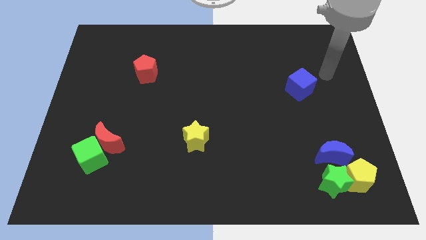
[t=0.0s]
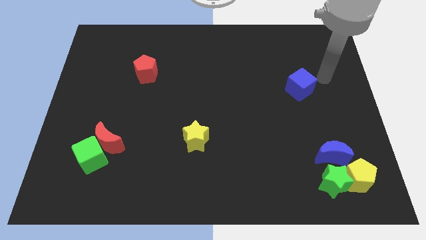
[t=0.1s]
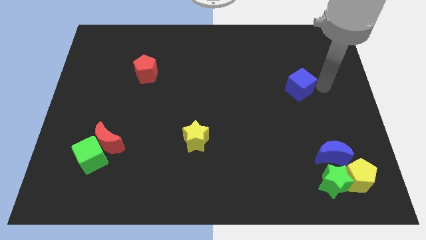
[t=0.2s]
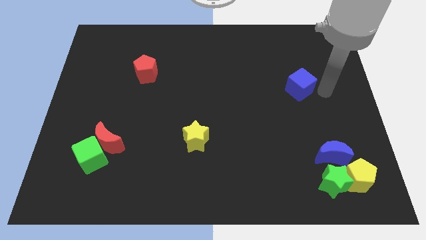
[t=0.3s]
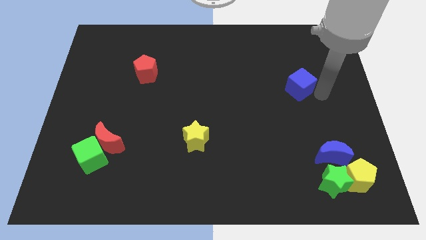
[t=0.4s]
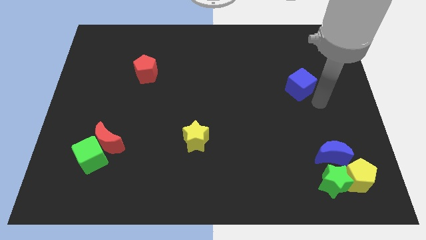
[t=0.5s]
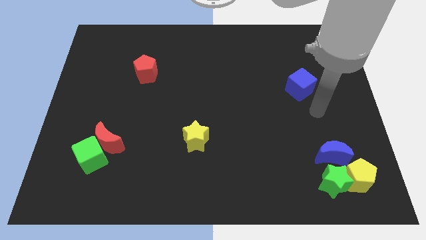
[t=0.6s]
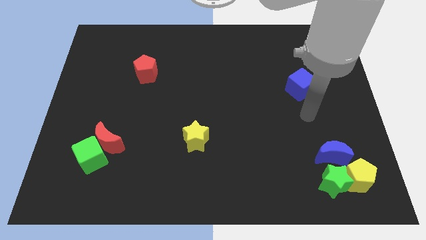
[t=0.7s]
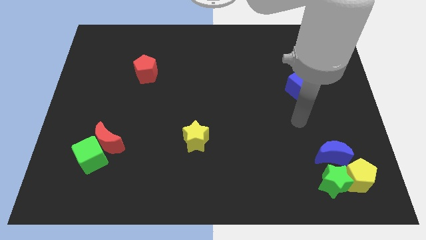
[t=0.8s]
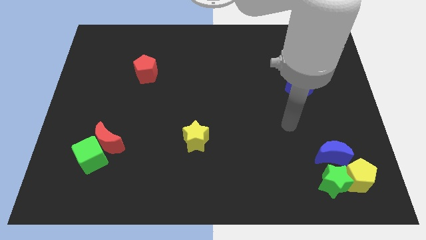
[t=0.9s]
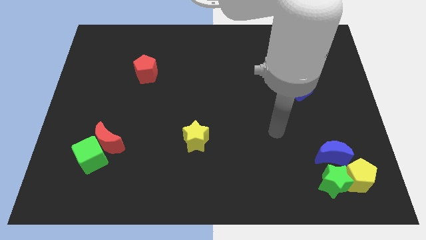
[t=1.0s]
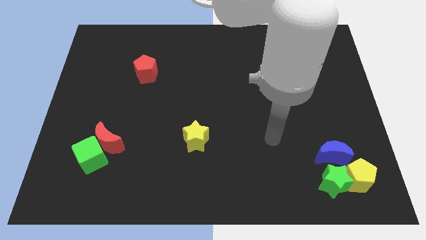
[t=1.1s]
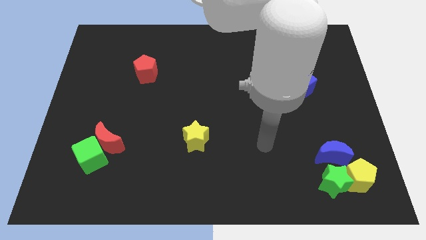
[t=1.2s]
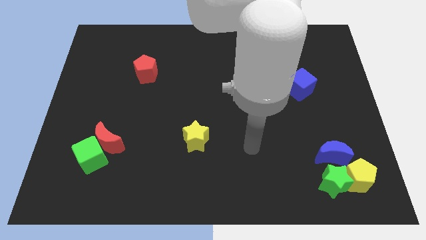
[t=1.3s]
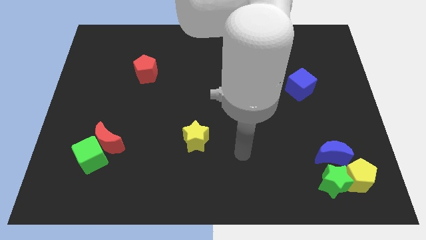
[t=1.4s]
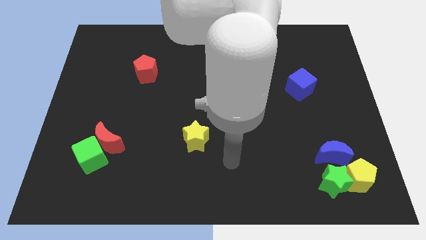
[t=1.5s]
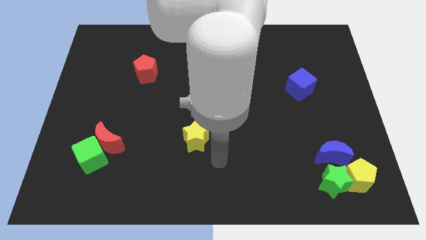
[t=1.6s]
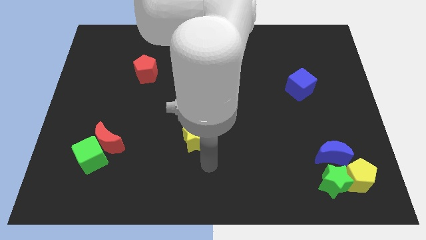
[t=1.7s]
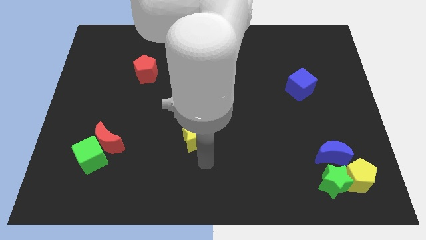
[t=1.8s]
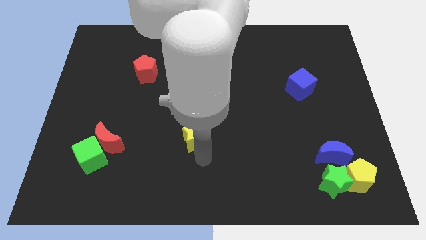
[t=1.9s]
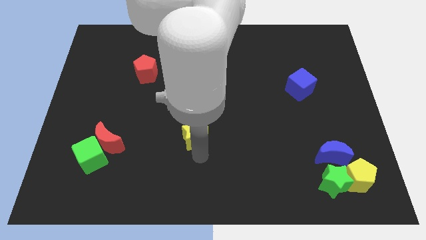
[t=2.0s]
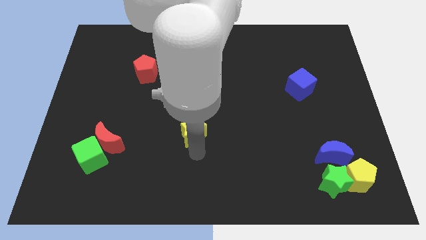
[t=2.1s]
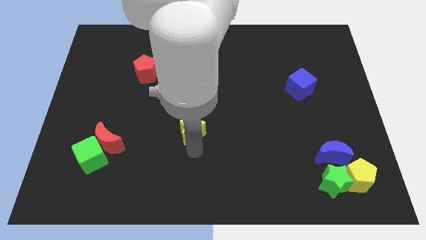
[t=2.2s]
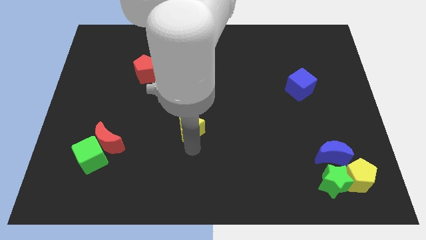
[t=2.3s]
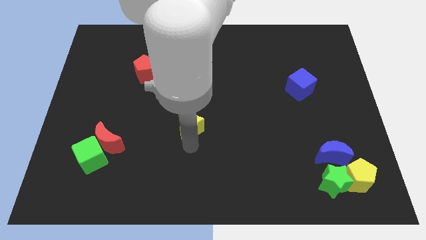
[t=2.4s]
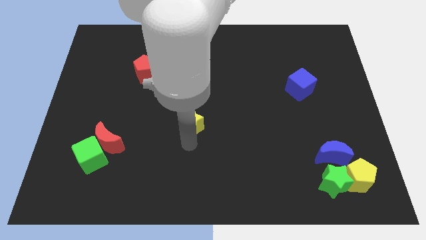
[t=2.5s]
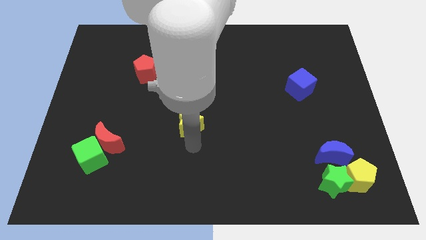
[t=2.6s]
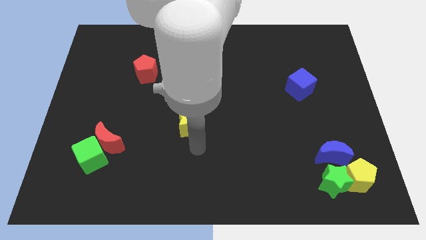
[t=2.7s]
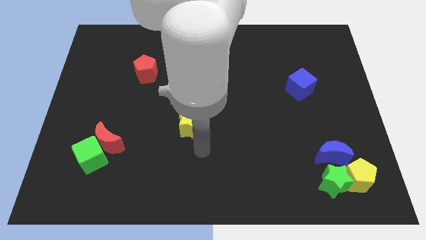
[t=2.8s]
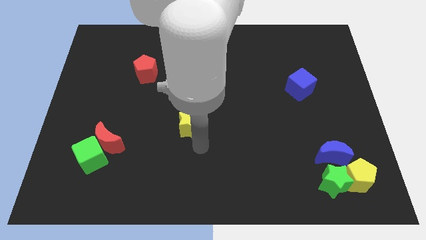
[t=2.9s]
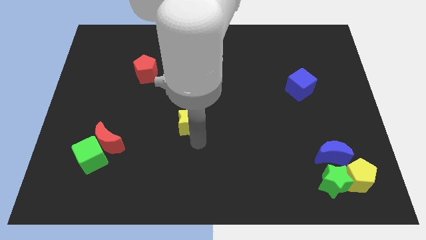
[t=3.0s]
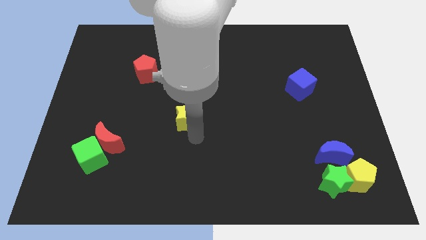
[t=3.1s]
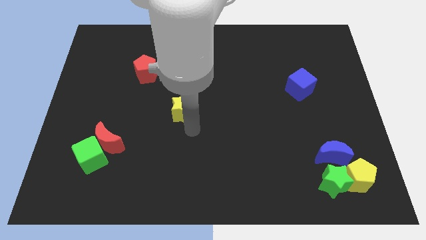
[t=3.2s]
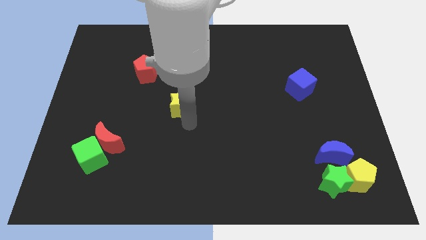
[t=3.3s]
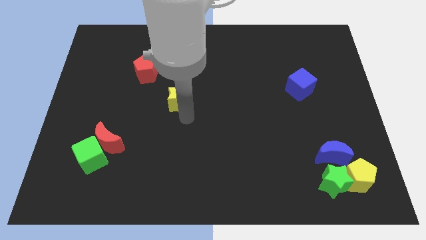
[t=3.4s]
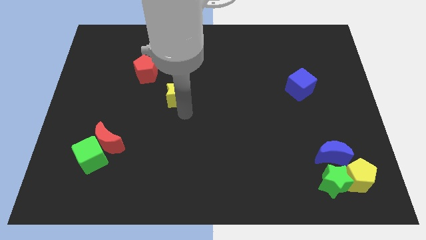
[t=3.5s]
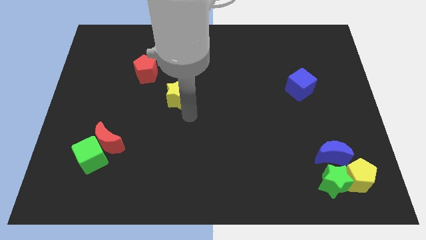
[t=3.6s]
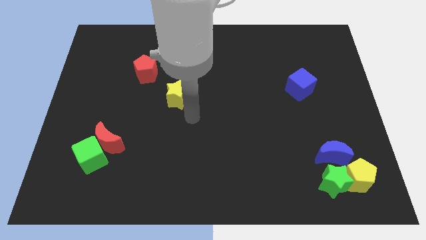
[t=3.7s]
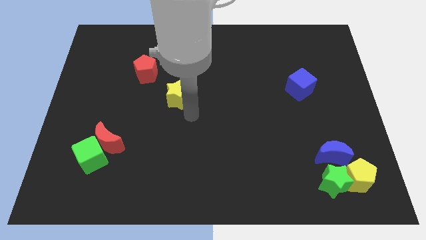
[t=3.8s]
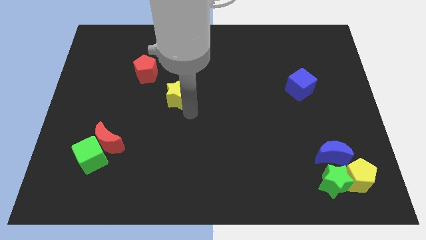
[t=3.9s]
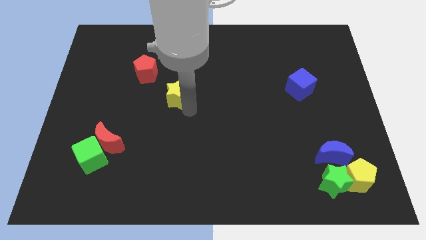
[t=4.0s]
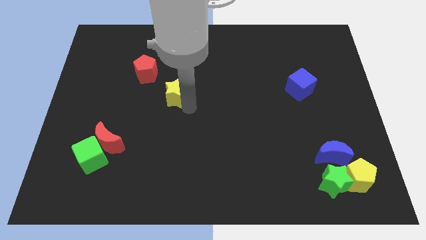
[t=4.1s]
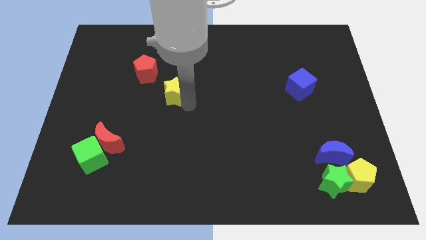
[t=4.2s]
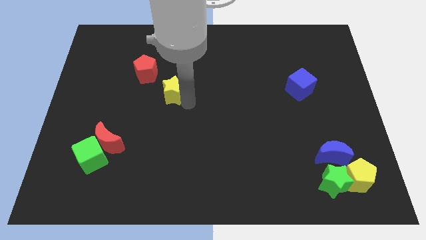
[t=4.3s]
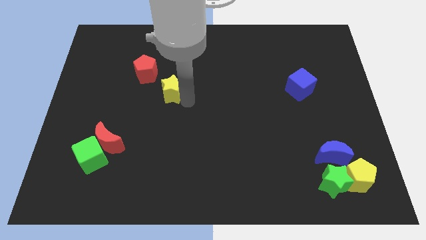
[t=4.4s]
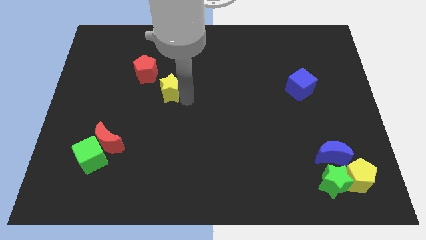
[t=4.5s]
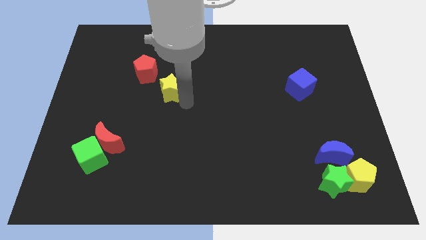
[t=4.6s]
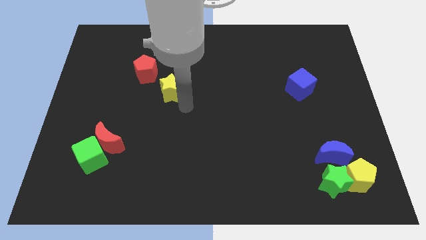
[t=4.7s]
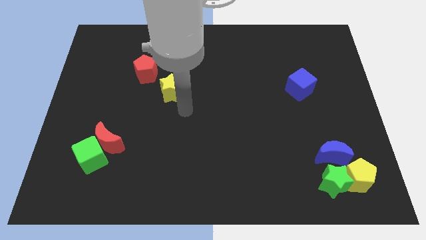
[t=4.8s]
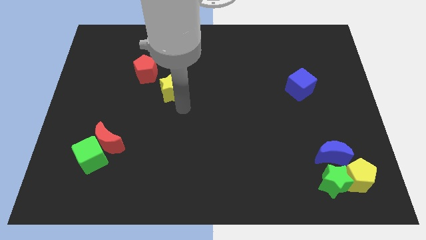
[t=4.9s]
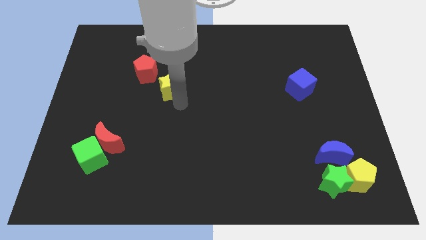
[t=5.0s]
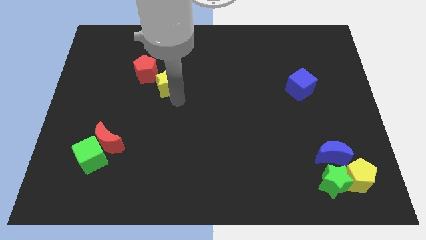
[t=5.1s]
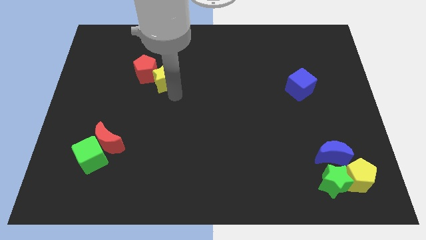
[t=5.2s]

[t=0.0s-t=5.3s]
push the yellow star to the red pentagon

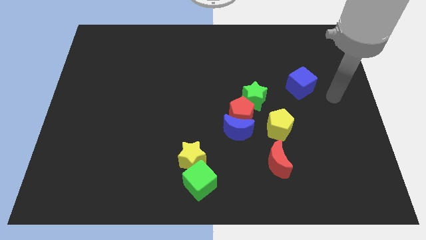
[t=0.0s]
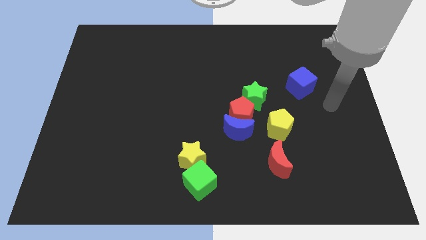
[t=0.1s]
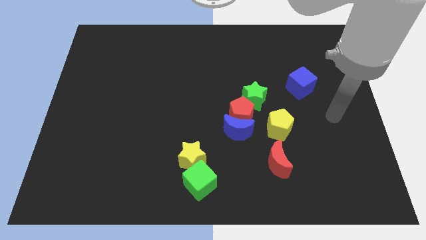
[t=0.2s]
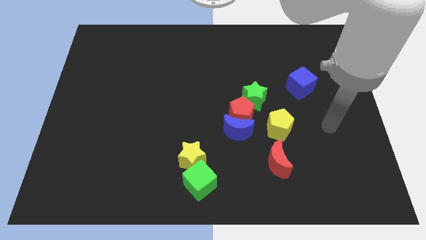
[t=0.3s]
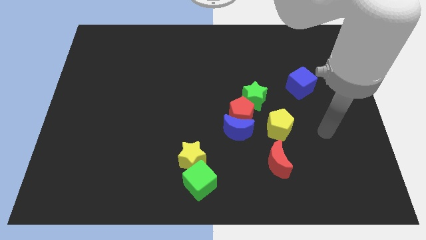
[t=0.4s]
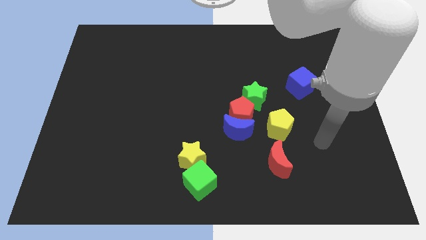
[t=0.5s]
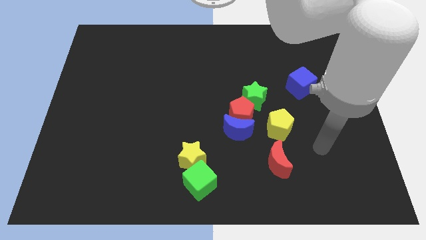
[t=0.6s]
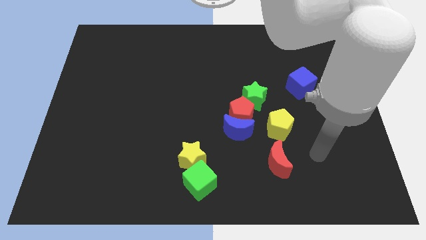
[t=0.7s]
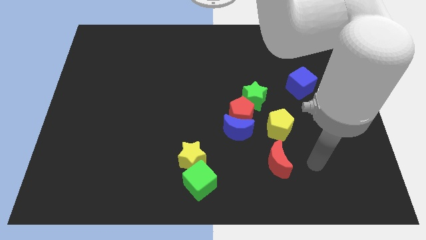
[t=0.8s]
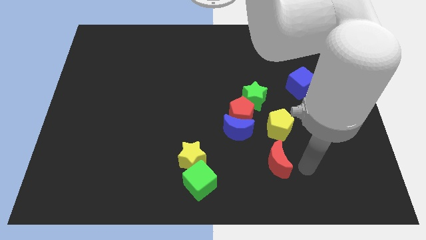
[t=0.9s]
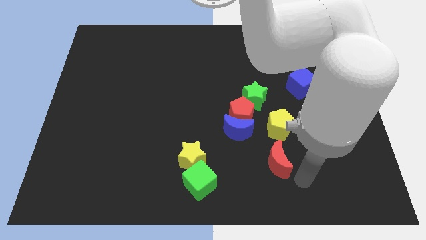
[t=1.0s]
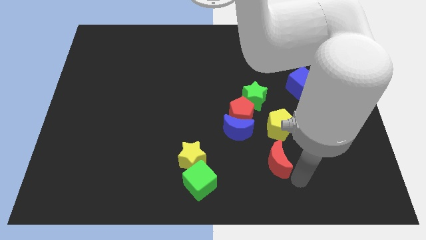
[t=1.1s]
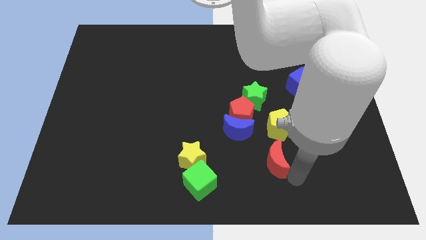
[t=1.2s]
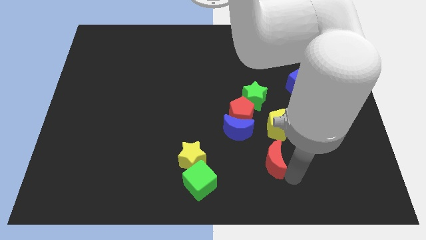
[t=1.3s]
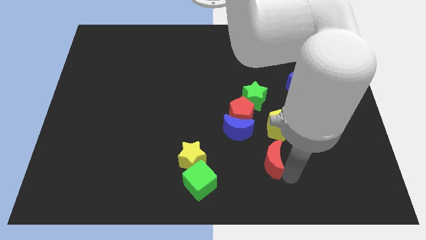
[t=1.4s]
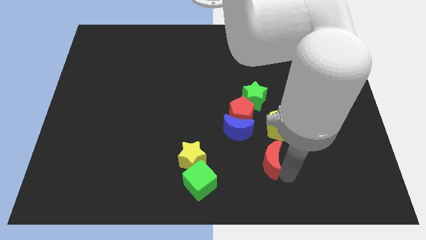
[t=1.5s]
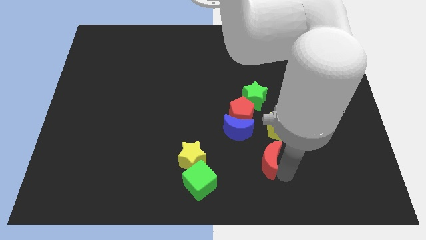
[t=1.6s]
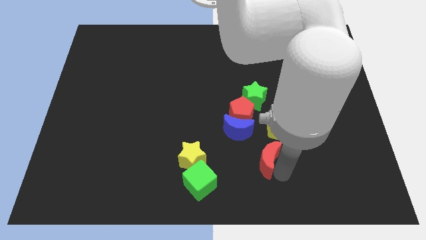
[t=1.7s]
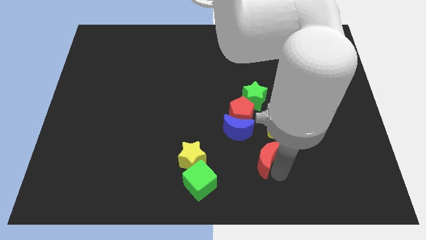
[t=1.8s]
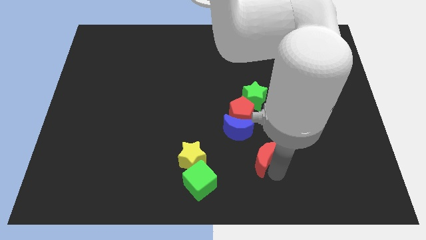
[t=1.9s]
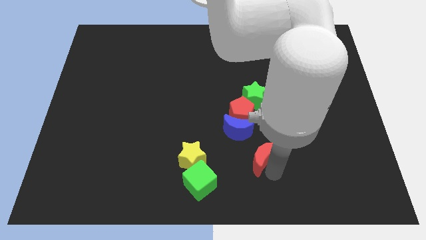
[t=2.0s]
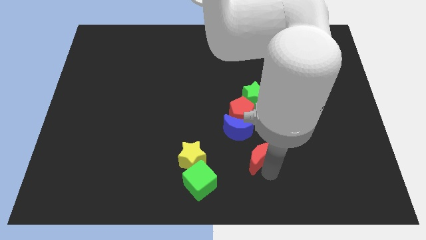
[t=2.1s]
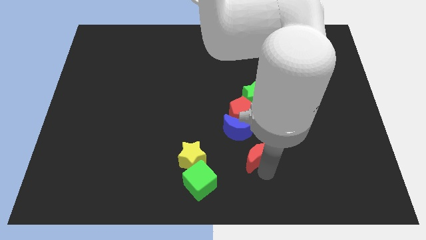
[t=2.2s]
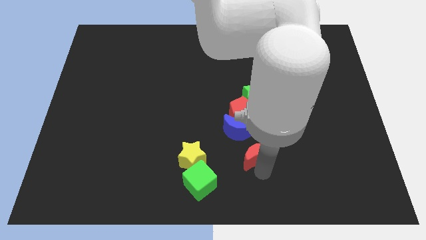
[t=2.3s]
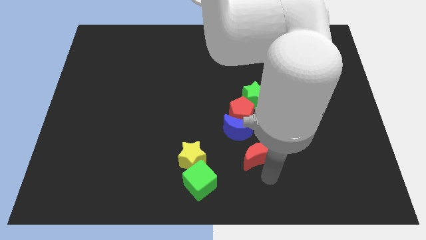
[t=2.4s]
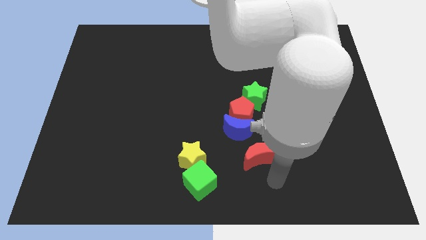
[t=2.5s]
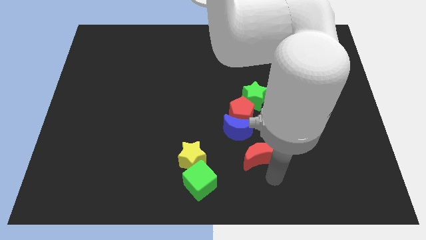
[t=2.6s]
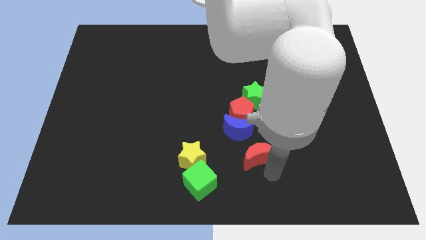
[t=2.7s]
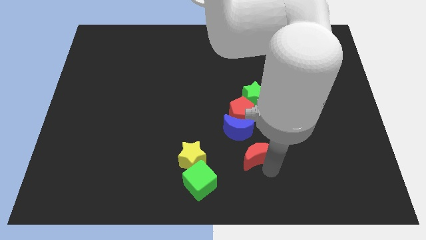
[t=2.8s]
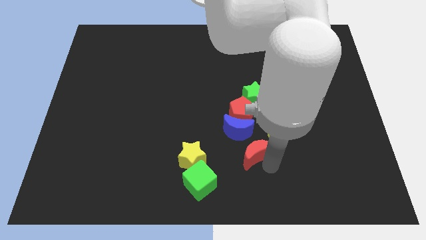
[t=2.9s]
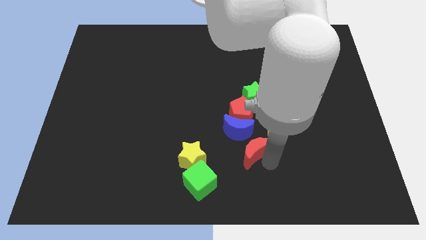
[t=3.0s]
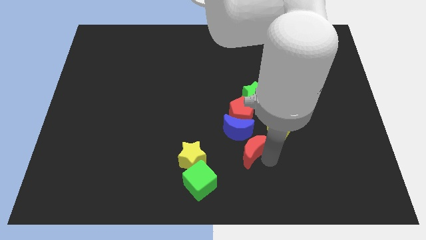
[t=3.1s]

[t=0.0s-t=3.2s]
move the red moon towards the blue moon
